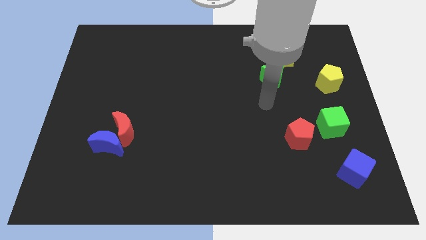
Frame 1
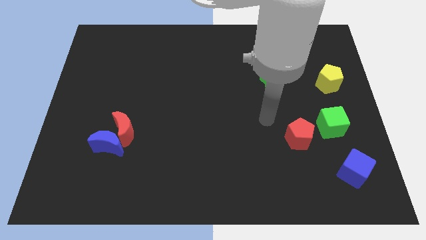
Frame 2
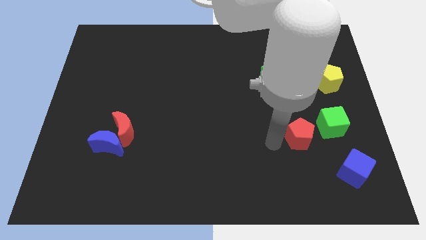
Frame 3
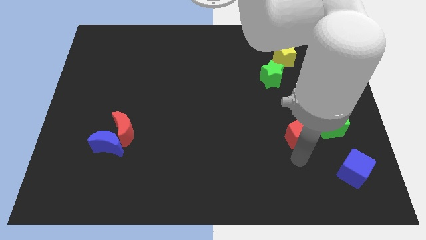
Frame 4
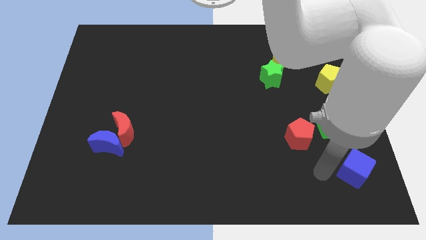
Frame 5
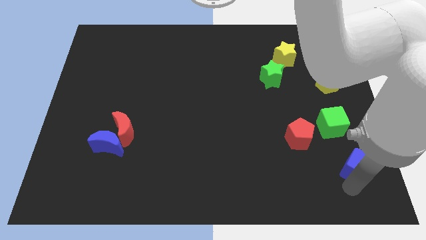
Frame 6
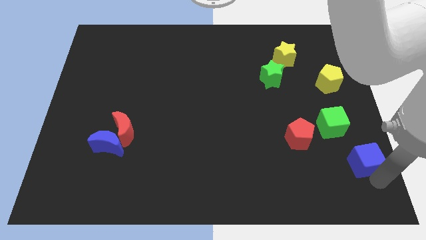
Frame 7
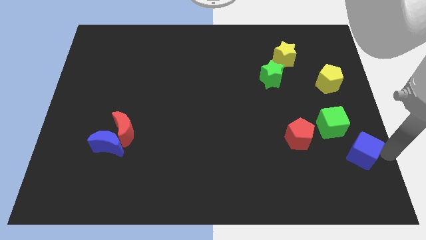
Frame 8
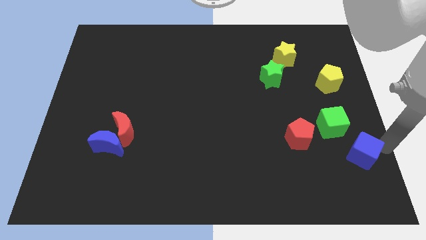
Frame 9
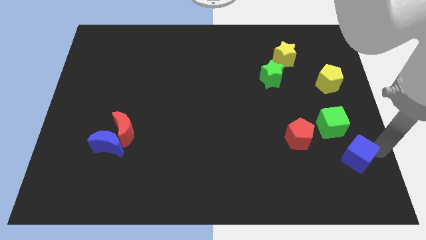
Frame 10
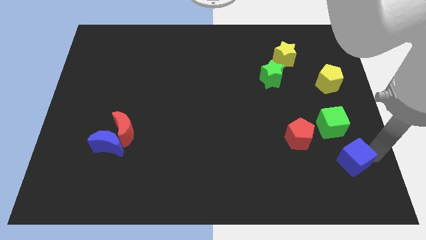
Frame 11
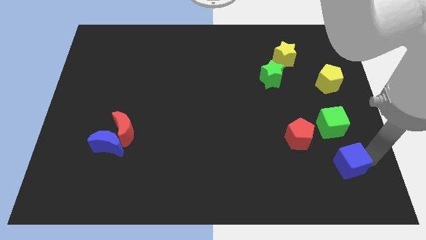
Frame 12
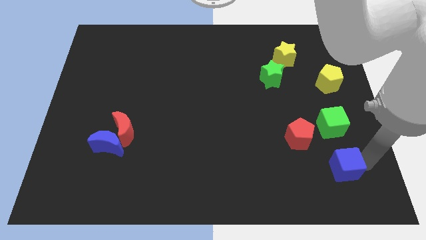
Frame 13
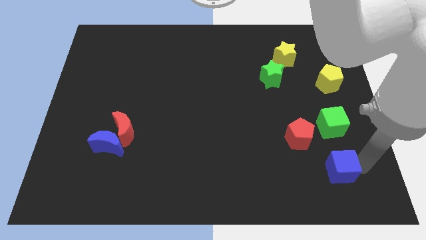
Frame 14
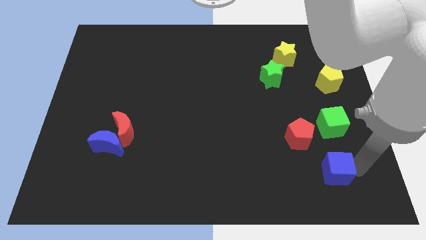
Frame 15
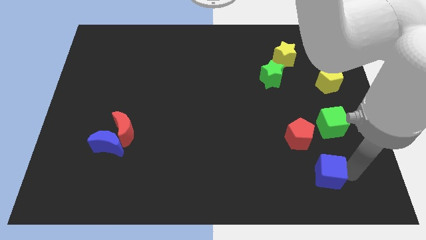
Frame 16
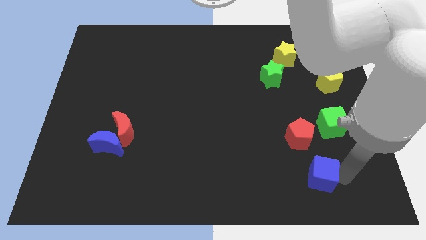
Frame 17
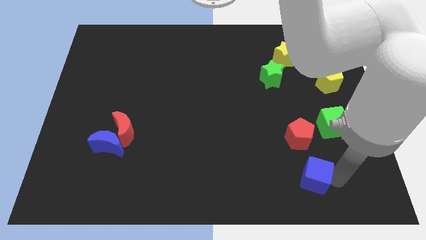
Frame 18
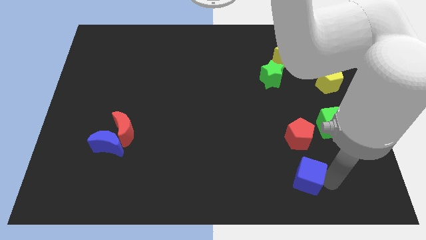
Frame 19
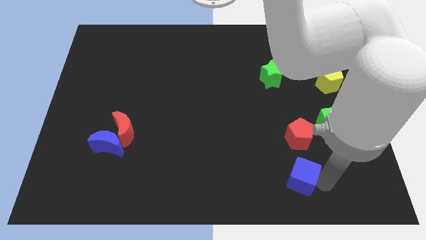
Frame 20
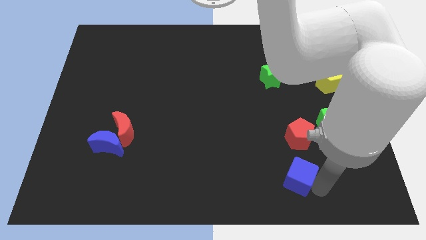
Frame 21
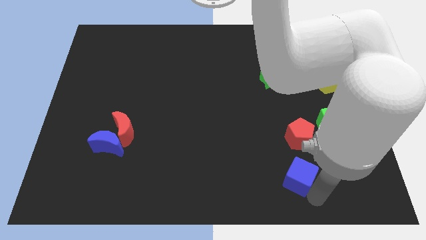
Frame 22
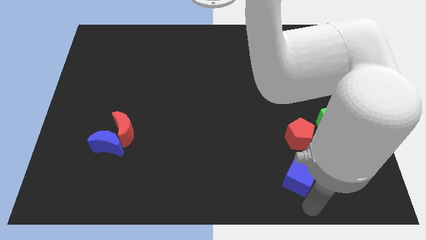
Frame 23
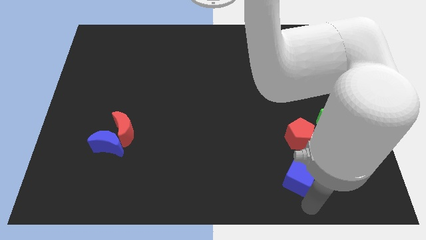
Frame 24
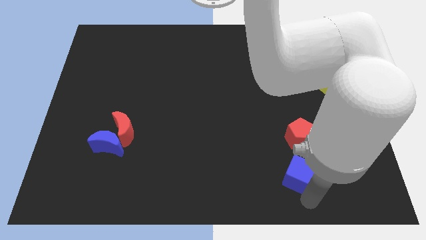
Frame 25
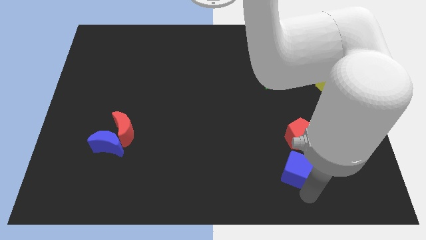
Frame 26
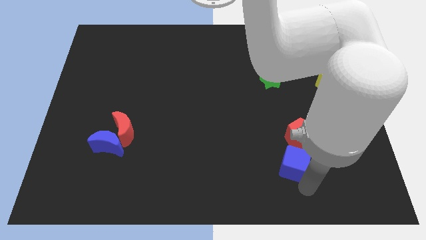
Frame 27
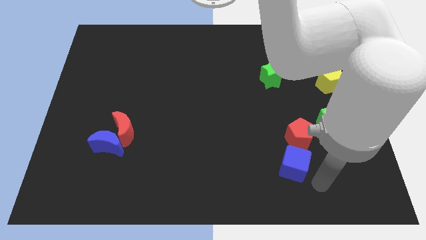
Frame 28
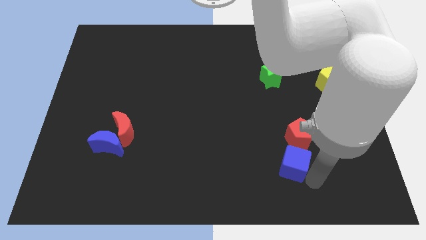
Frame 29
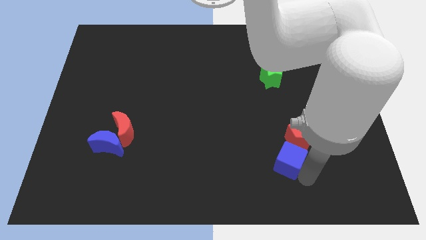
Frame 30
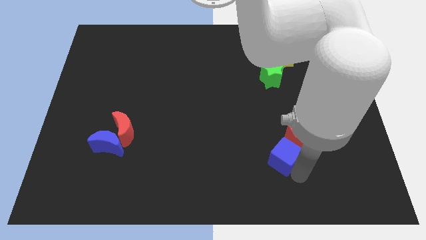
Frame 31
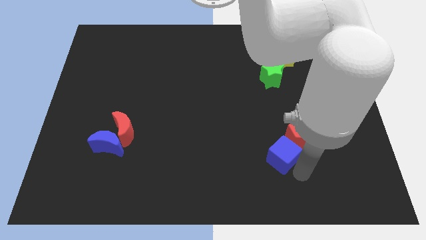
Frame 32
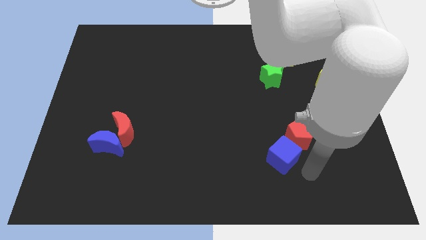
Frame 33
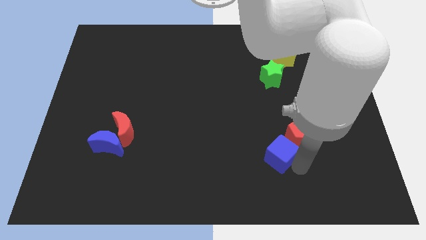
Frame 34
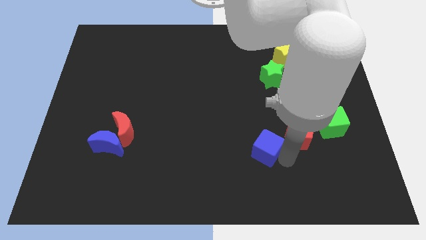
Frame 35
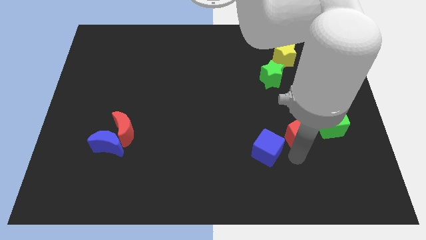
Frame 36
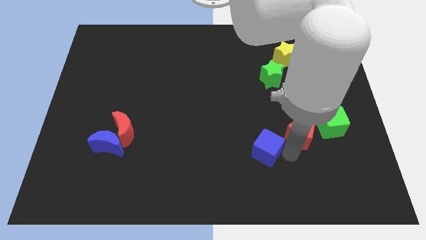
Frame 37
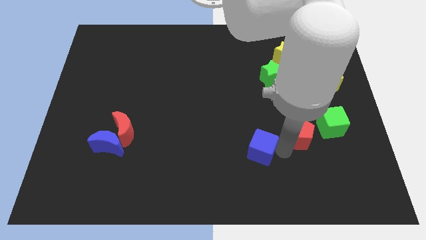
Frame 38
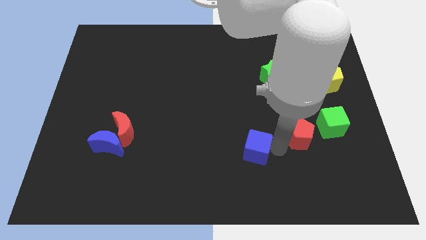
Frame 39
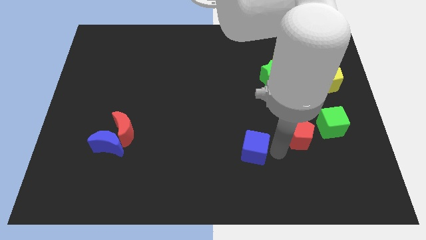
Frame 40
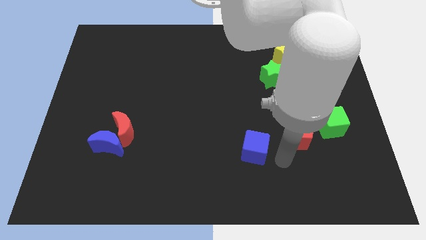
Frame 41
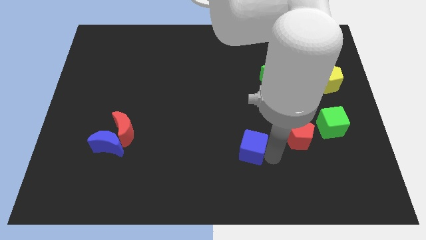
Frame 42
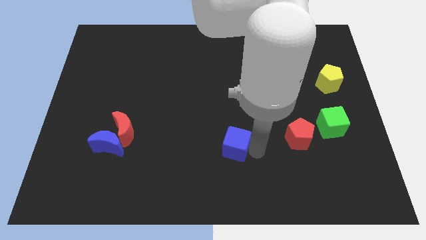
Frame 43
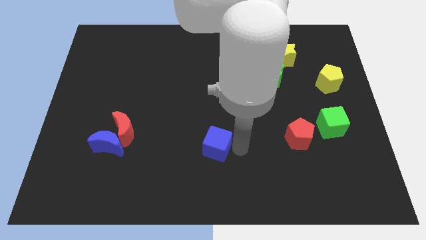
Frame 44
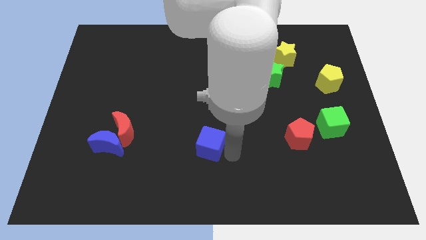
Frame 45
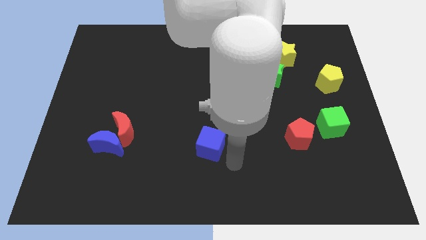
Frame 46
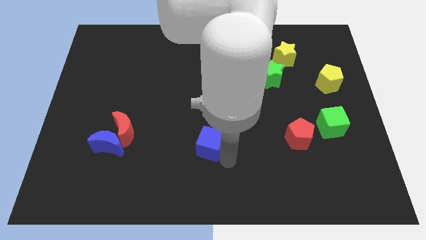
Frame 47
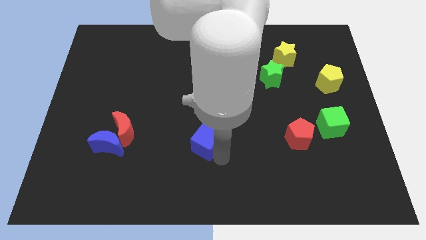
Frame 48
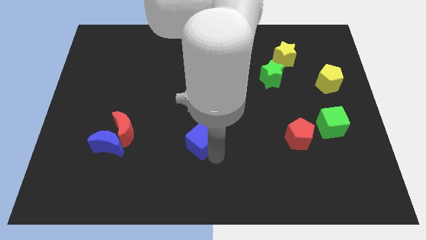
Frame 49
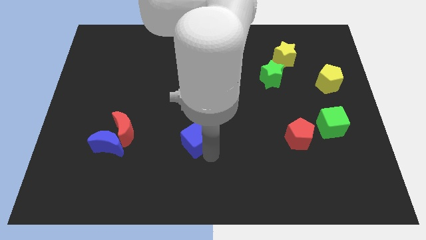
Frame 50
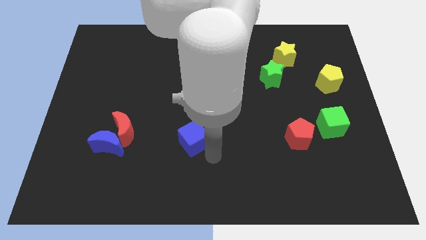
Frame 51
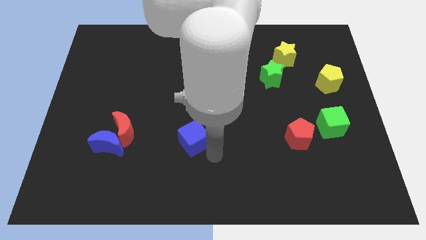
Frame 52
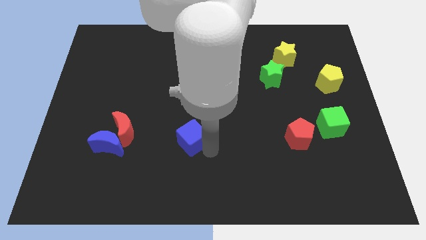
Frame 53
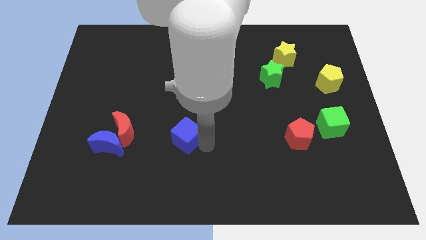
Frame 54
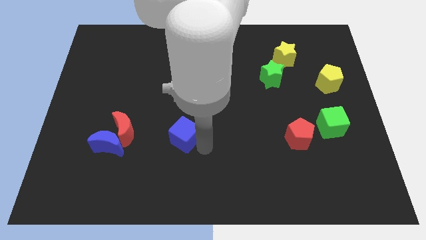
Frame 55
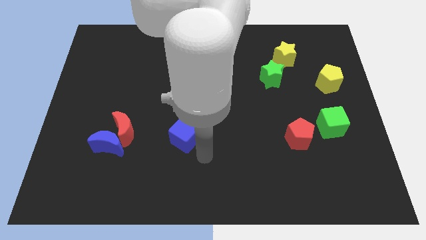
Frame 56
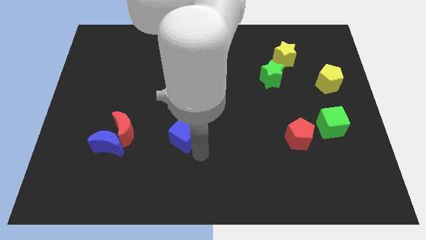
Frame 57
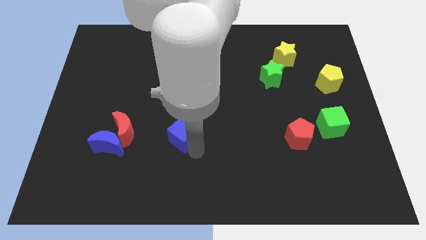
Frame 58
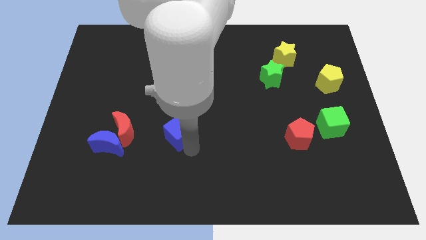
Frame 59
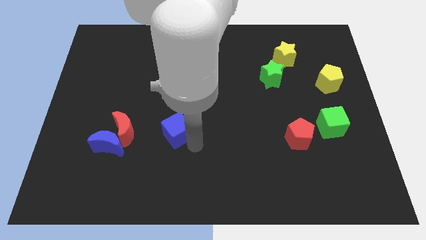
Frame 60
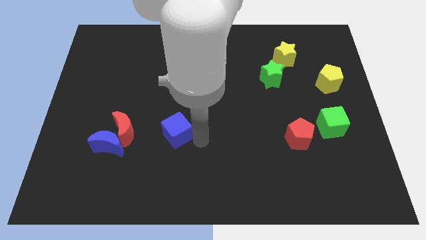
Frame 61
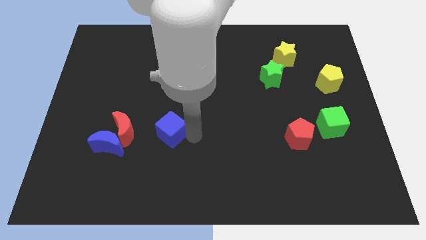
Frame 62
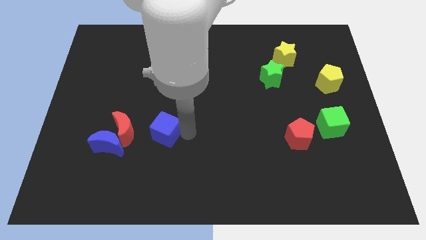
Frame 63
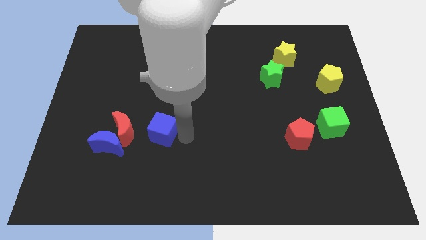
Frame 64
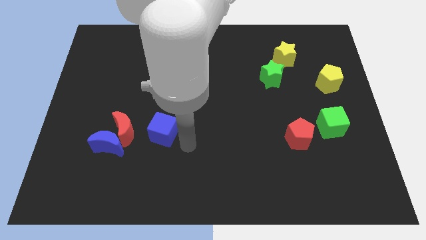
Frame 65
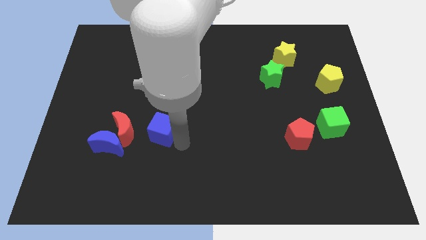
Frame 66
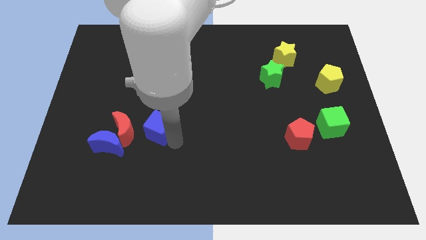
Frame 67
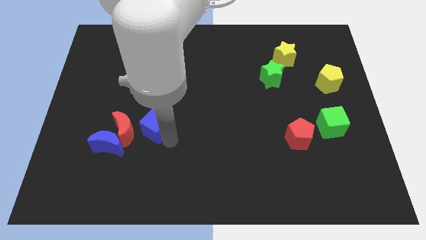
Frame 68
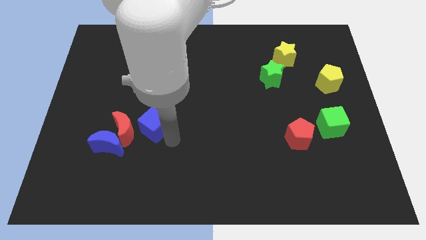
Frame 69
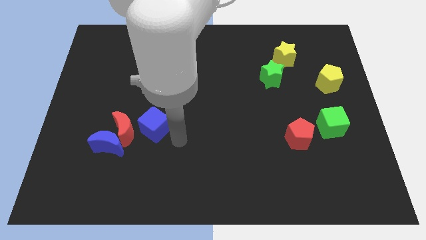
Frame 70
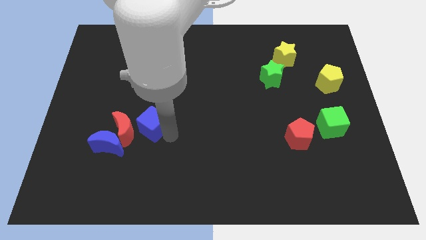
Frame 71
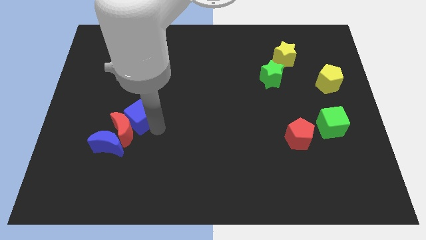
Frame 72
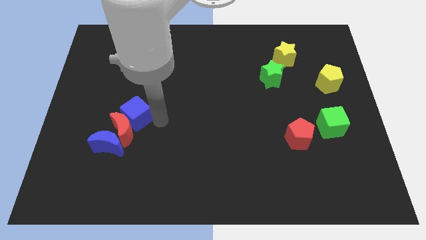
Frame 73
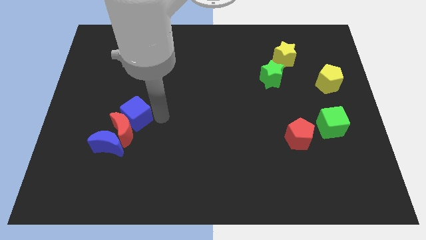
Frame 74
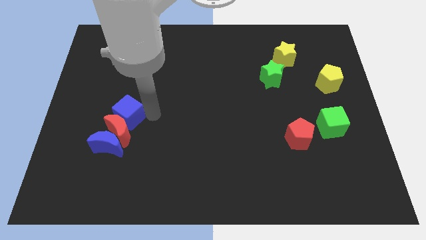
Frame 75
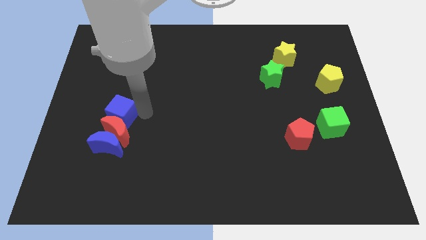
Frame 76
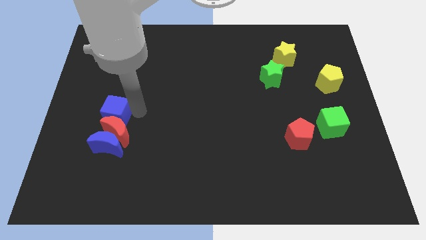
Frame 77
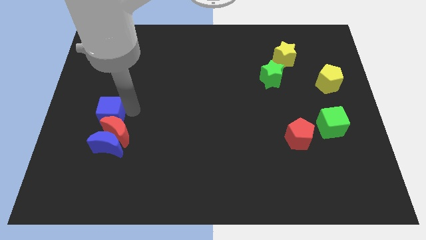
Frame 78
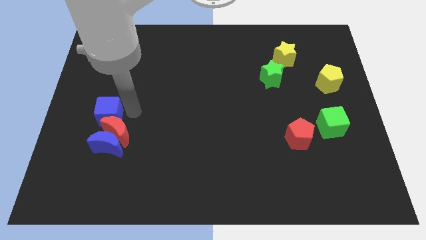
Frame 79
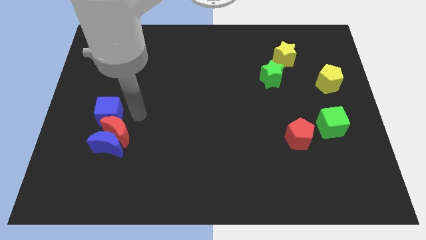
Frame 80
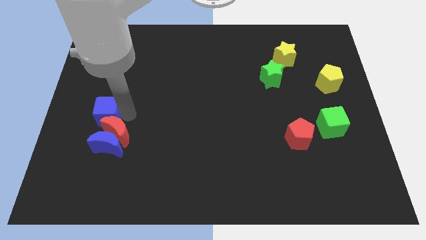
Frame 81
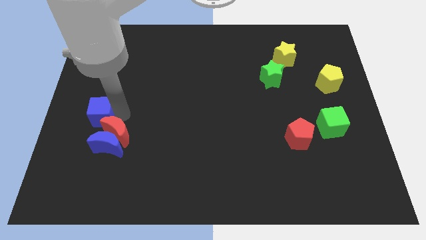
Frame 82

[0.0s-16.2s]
slide the blue cube to the left side
